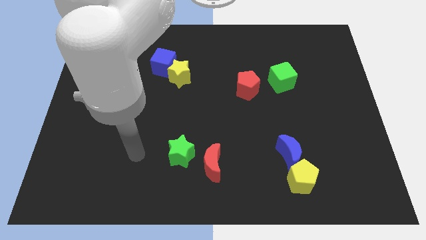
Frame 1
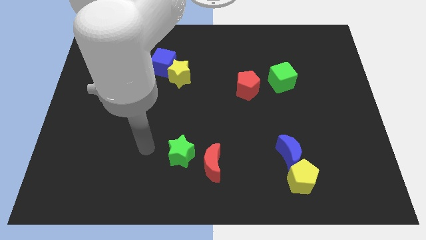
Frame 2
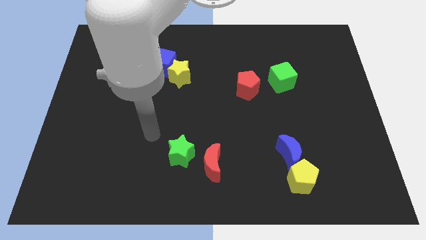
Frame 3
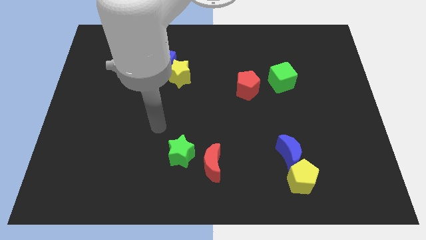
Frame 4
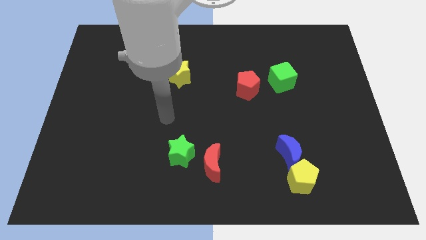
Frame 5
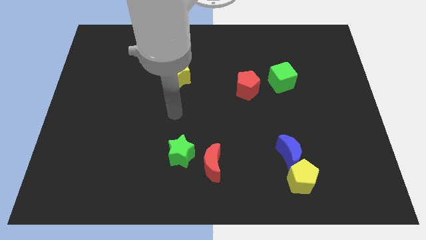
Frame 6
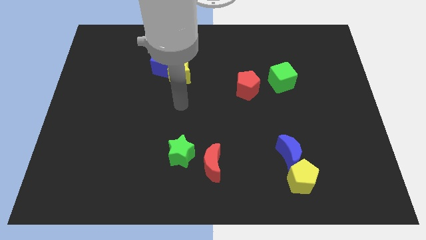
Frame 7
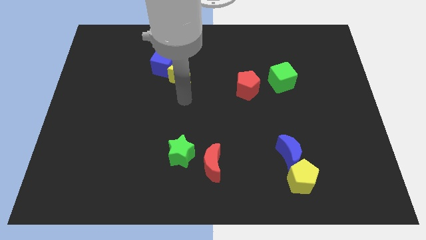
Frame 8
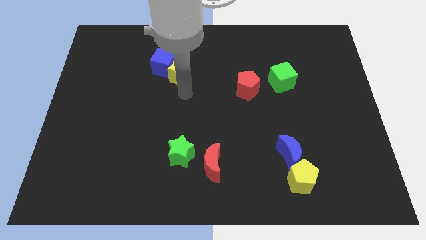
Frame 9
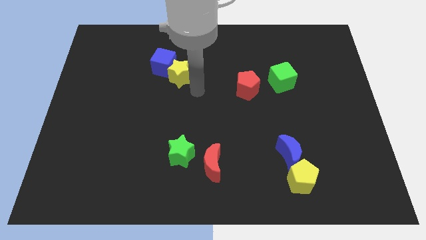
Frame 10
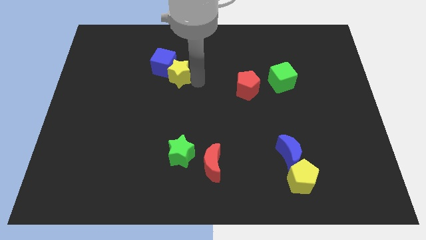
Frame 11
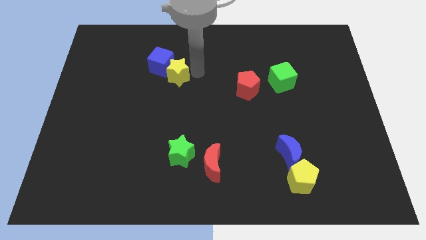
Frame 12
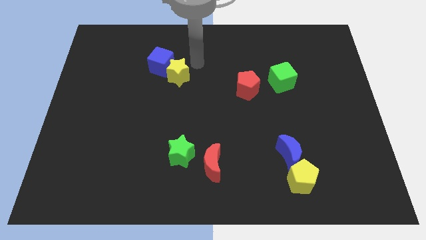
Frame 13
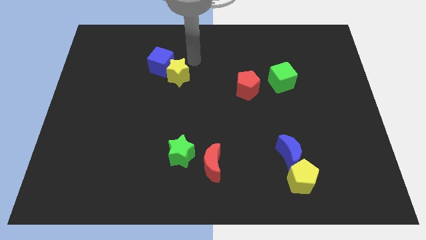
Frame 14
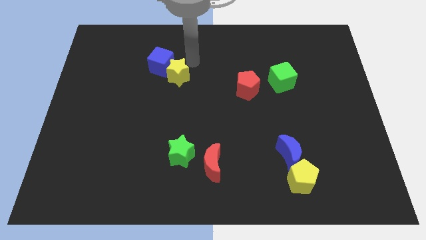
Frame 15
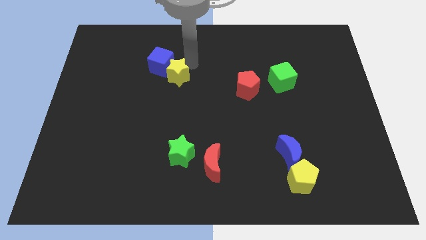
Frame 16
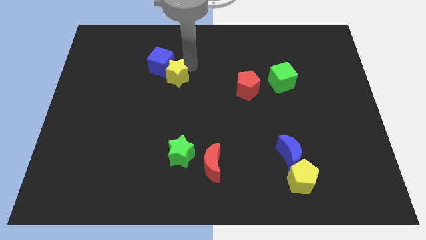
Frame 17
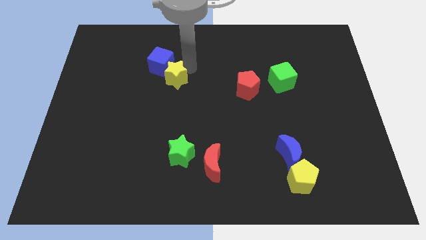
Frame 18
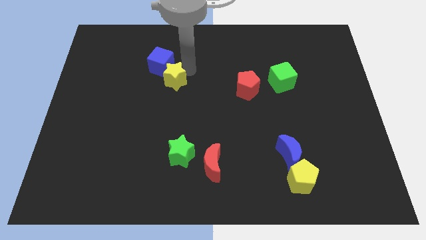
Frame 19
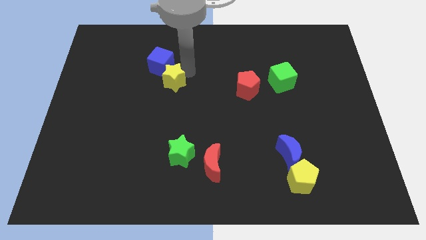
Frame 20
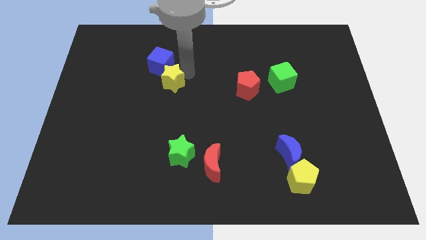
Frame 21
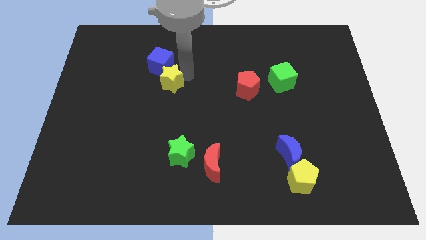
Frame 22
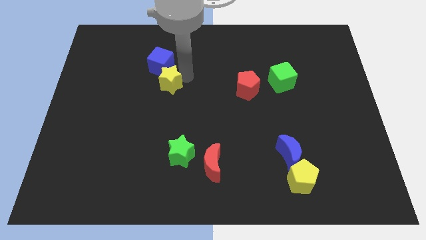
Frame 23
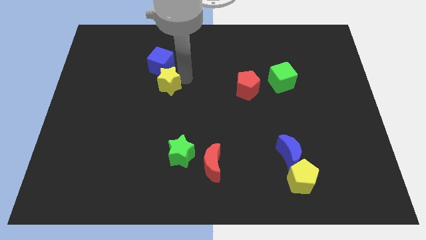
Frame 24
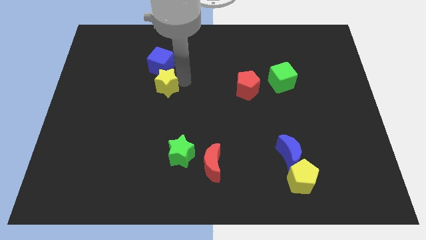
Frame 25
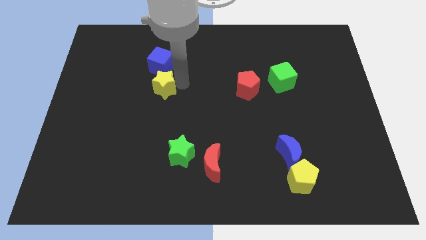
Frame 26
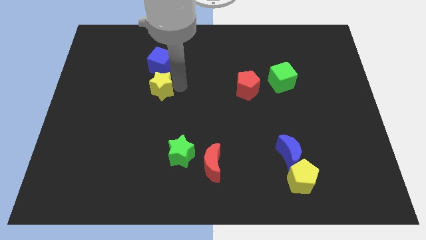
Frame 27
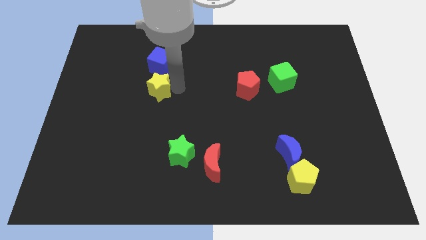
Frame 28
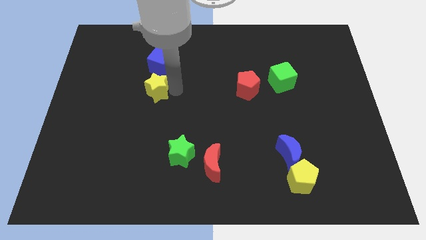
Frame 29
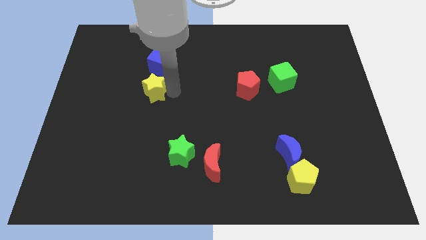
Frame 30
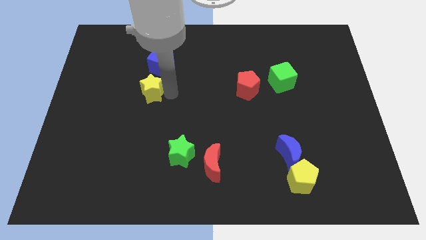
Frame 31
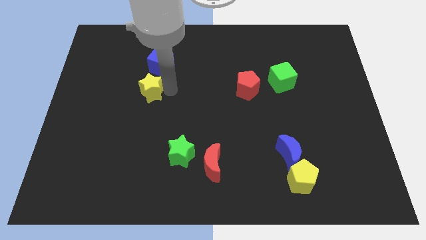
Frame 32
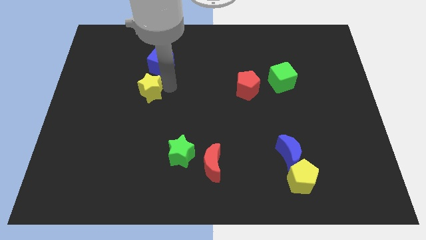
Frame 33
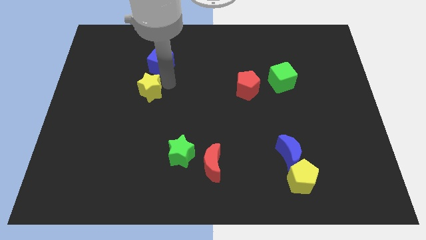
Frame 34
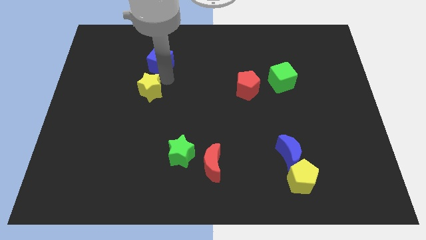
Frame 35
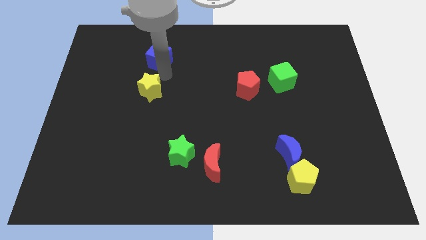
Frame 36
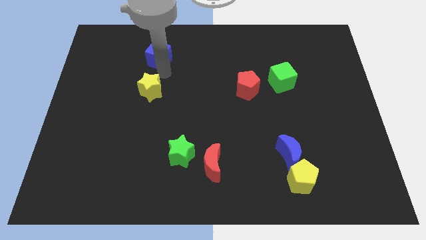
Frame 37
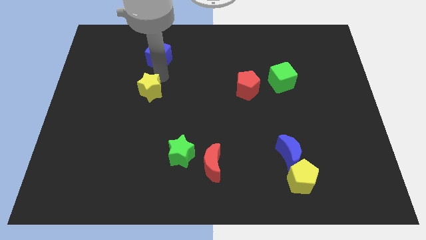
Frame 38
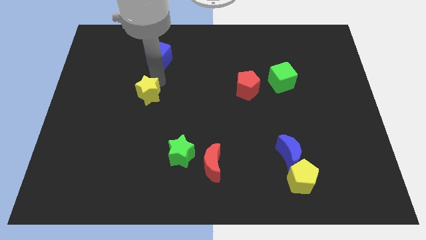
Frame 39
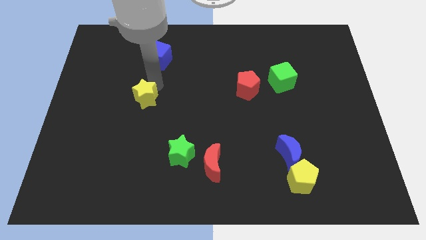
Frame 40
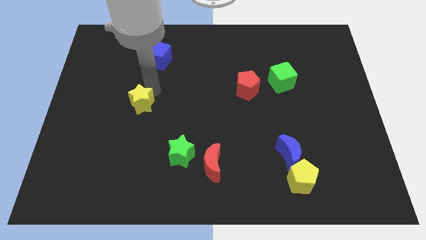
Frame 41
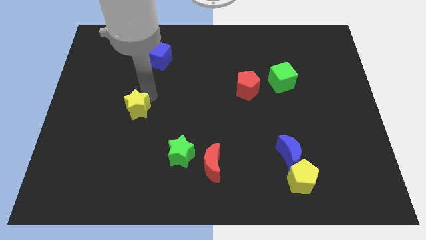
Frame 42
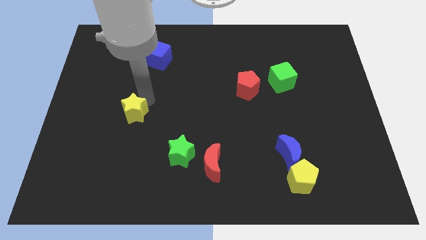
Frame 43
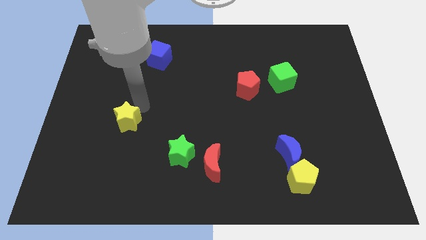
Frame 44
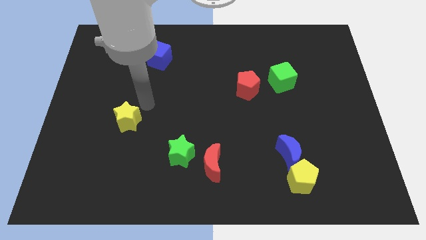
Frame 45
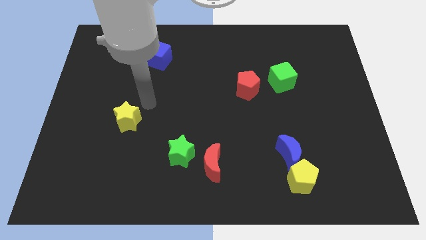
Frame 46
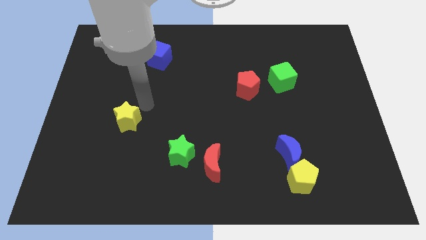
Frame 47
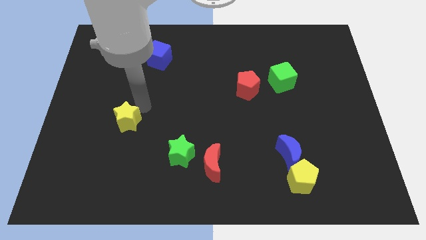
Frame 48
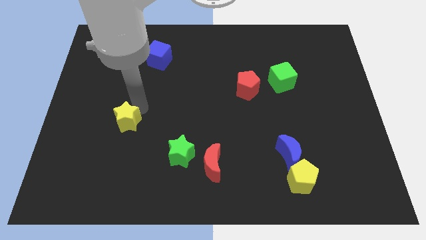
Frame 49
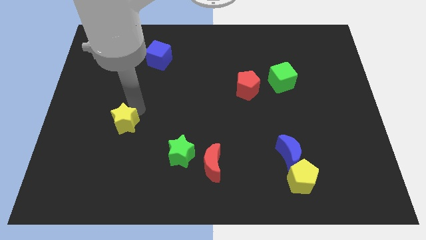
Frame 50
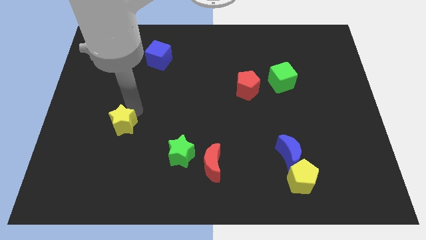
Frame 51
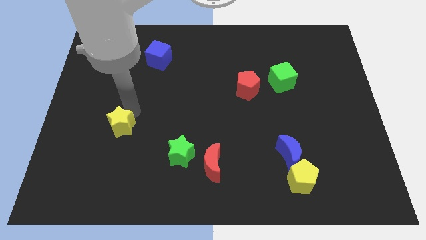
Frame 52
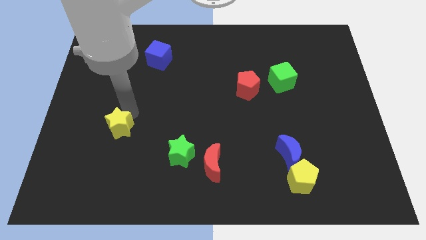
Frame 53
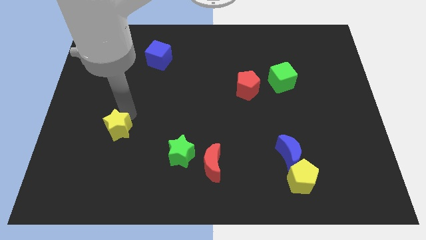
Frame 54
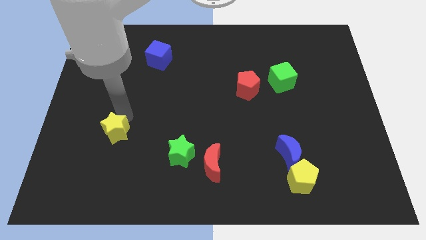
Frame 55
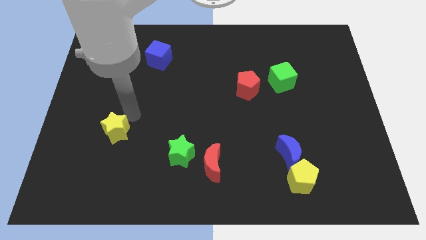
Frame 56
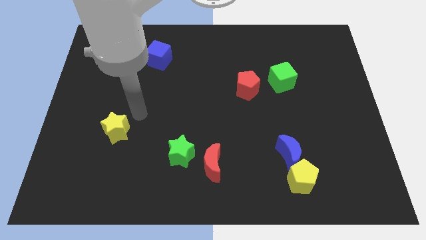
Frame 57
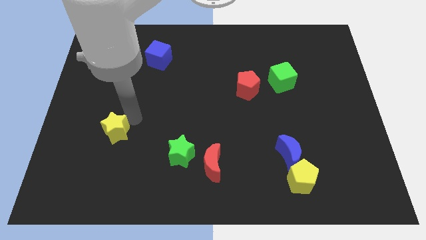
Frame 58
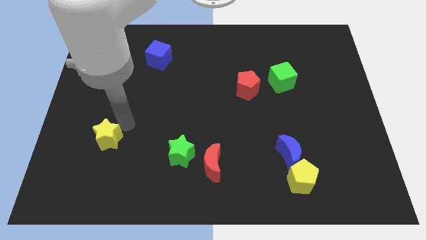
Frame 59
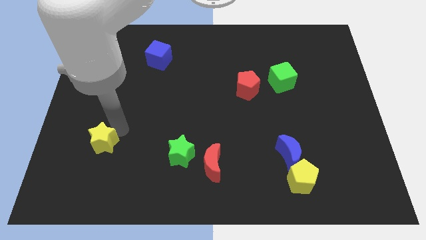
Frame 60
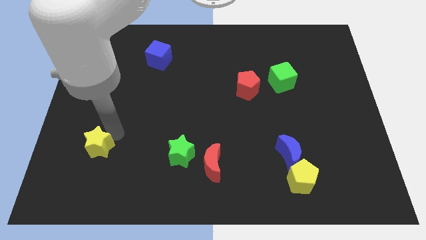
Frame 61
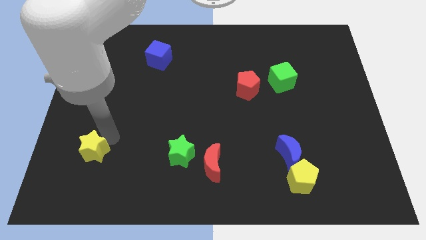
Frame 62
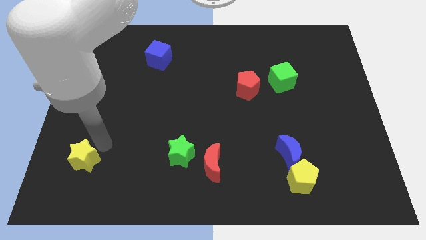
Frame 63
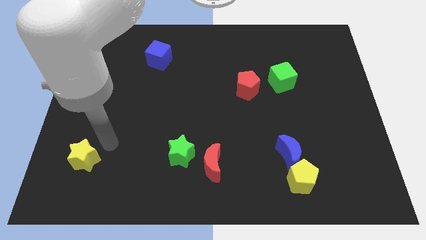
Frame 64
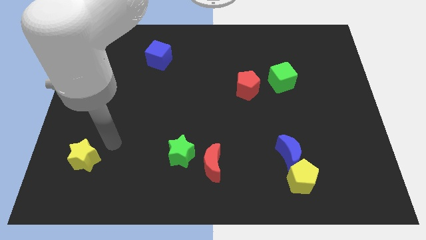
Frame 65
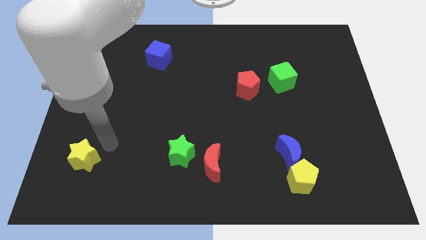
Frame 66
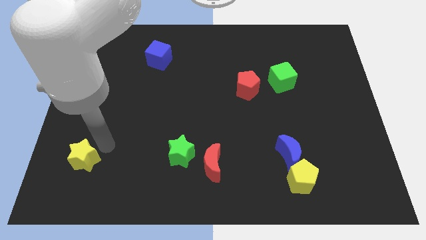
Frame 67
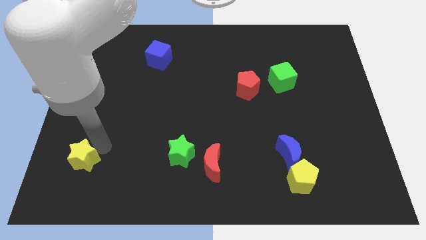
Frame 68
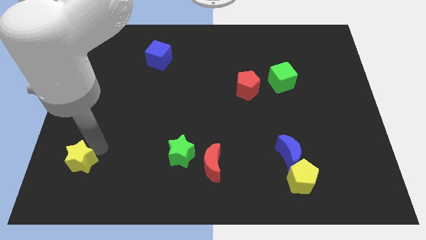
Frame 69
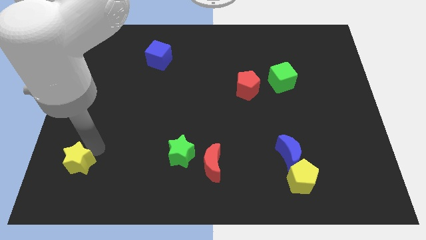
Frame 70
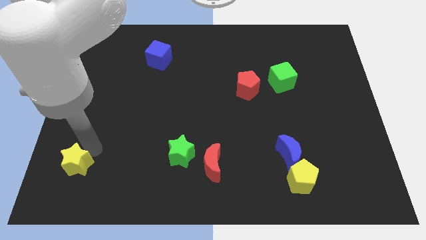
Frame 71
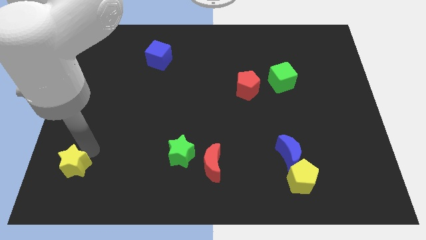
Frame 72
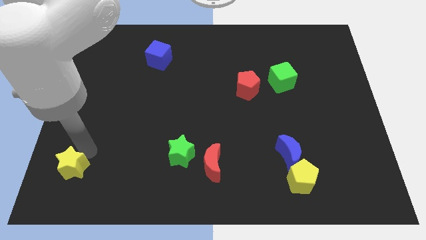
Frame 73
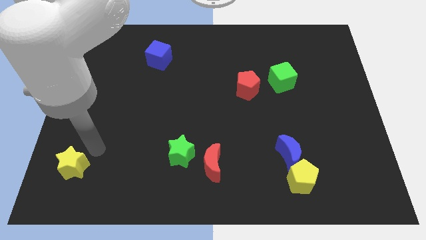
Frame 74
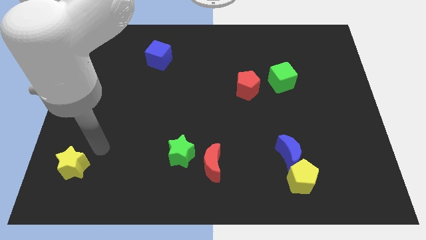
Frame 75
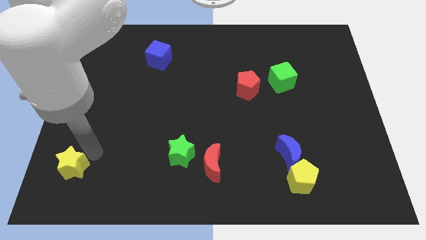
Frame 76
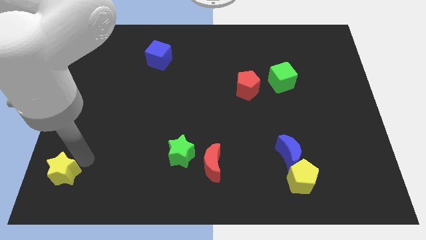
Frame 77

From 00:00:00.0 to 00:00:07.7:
put the yellow star to the bottom left
